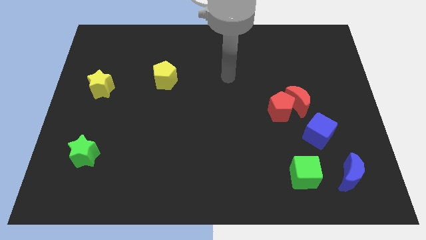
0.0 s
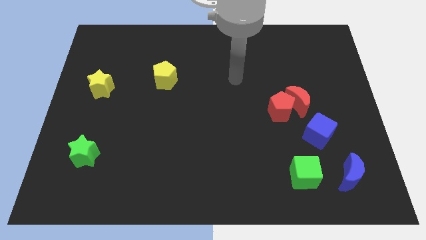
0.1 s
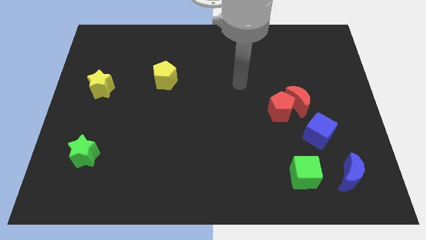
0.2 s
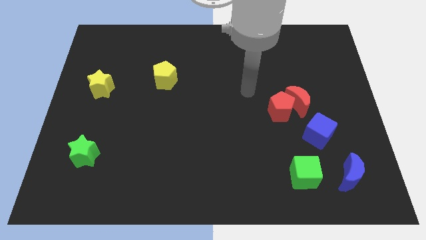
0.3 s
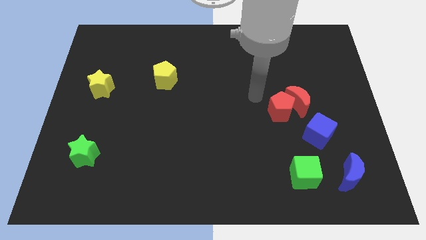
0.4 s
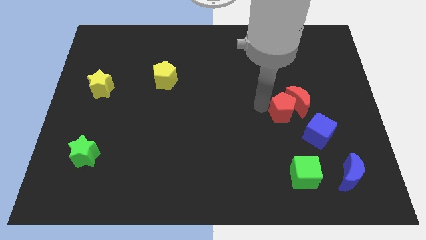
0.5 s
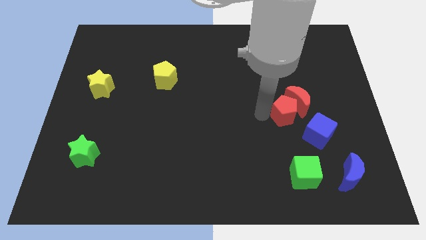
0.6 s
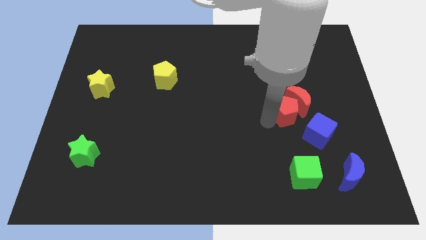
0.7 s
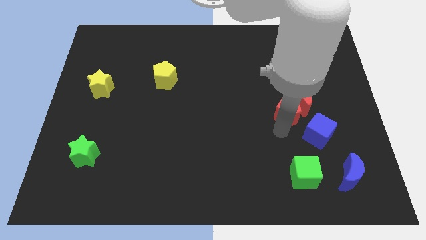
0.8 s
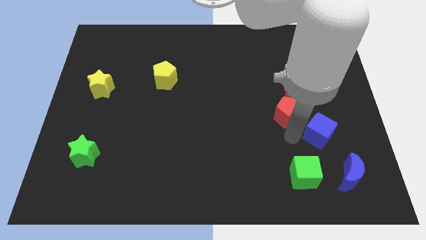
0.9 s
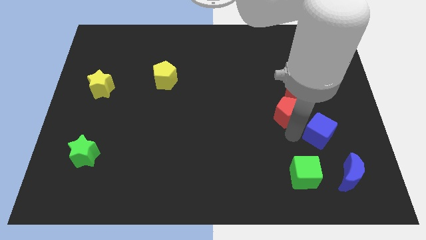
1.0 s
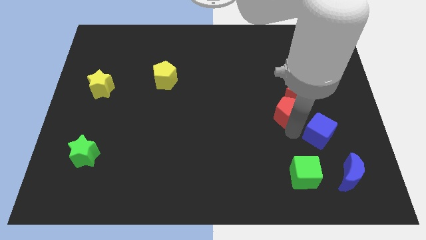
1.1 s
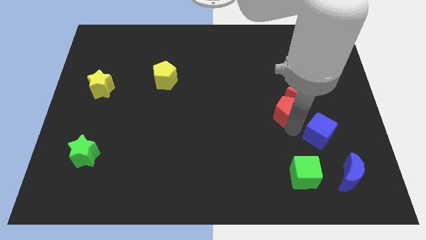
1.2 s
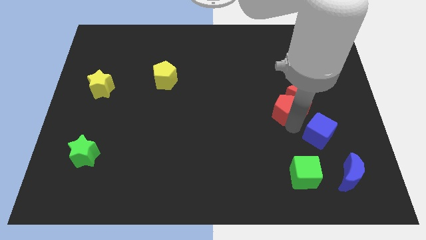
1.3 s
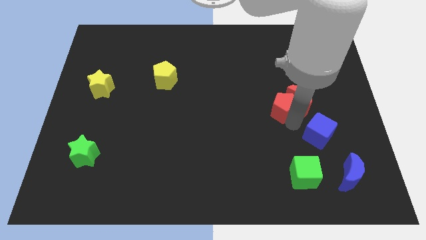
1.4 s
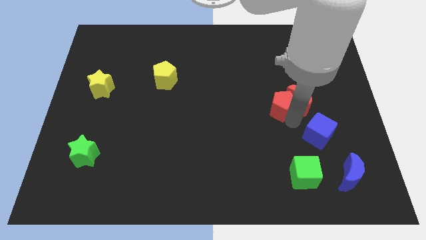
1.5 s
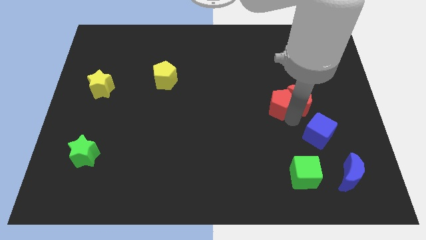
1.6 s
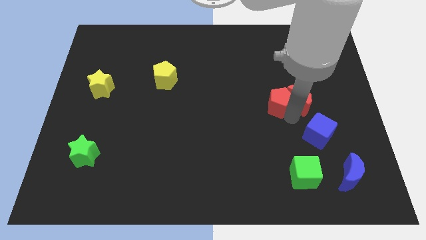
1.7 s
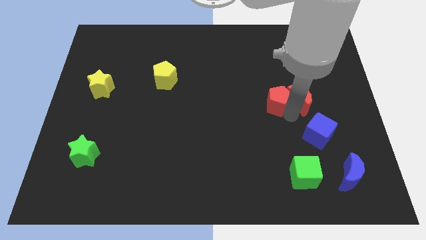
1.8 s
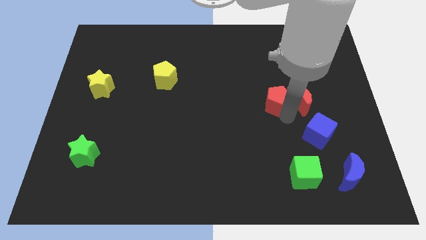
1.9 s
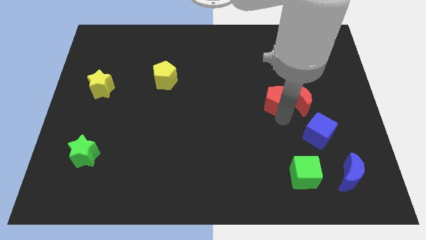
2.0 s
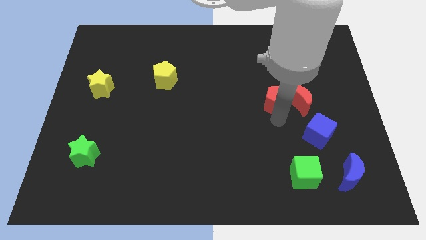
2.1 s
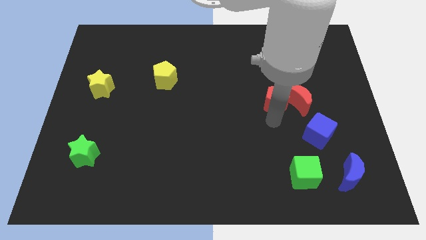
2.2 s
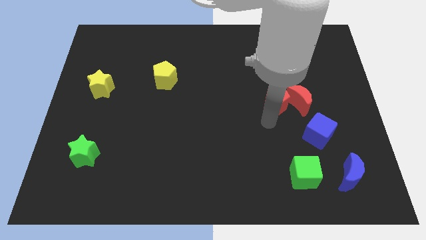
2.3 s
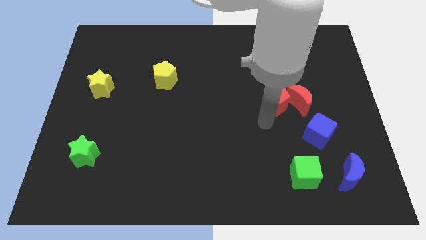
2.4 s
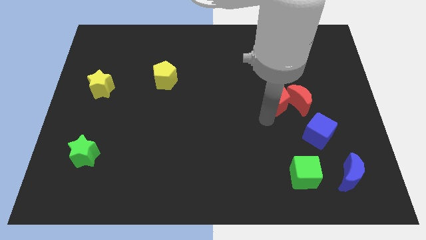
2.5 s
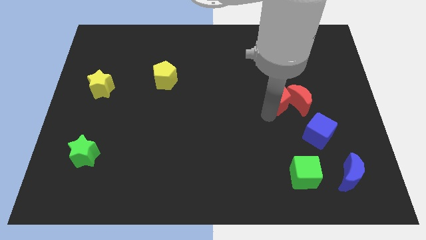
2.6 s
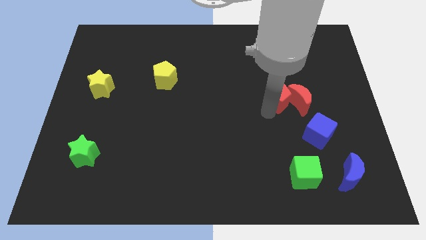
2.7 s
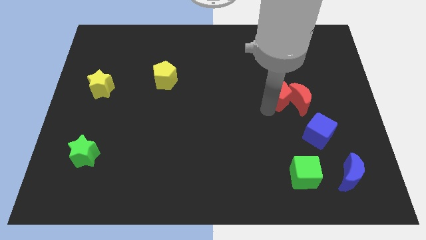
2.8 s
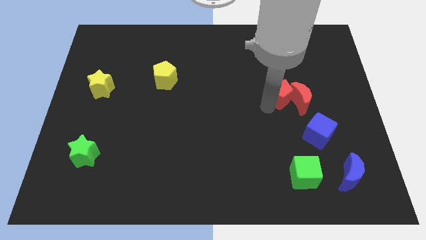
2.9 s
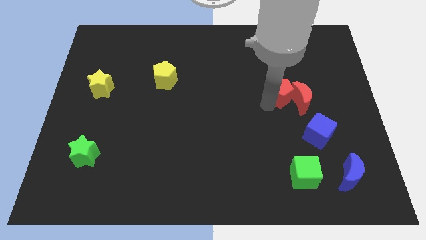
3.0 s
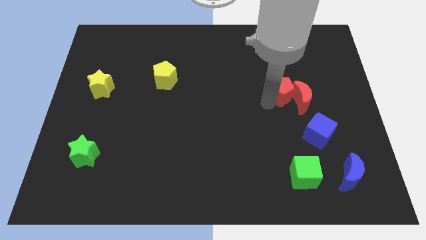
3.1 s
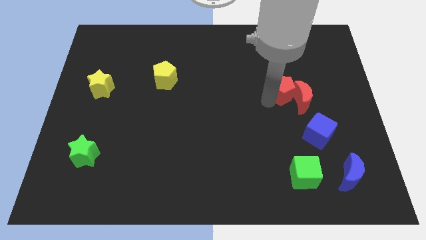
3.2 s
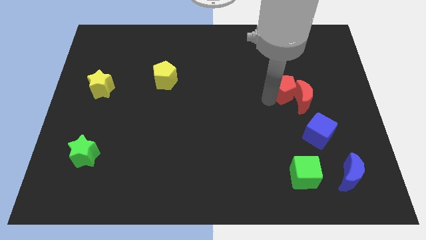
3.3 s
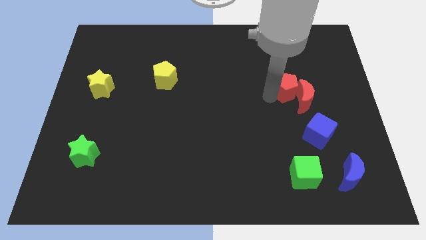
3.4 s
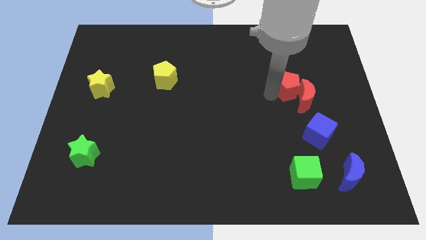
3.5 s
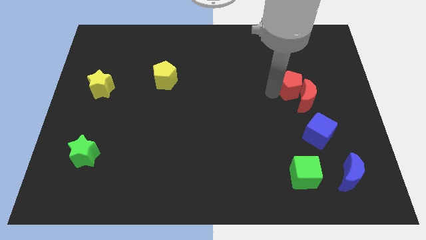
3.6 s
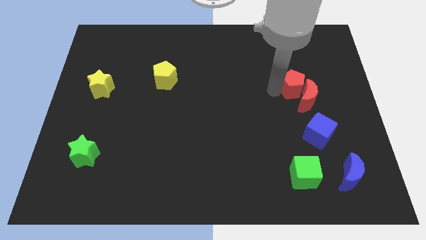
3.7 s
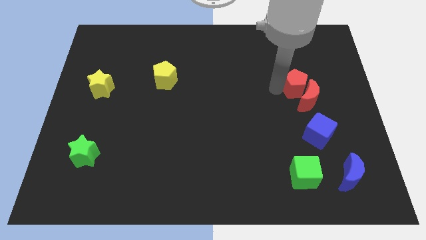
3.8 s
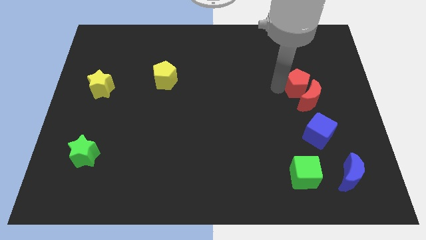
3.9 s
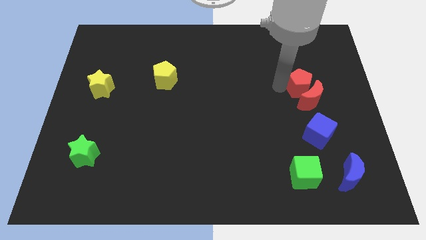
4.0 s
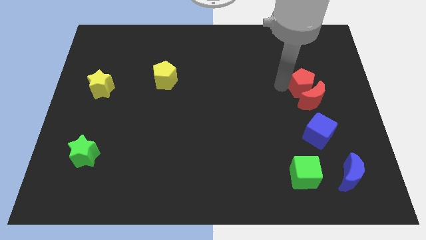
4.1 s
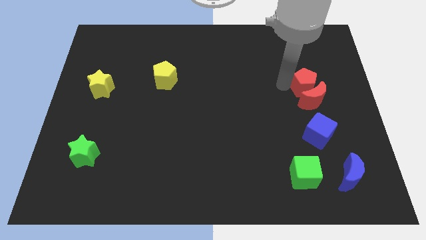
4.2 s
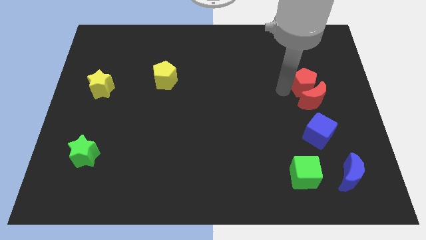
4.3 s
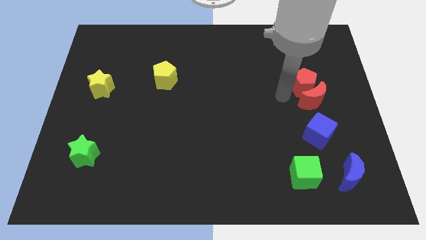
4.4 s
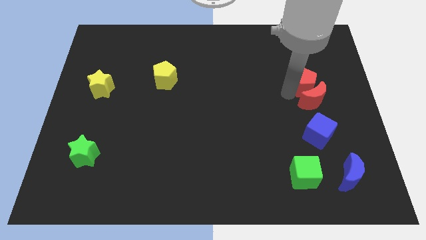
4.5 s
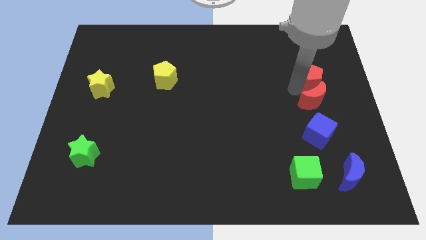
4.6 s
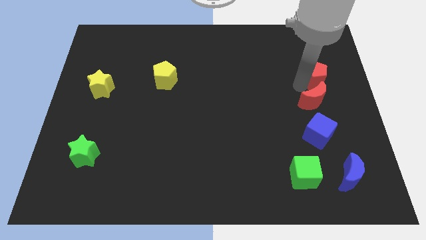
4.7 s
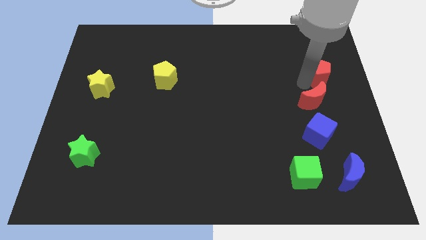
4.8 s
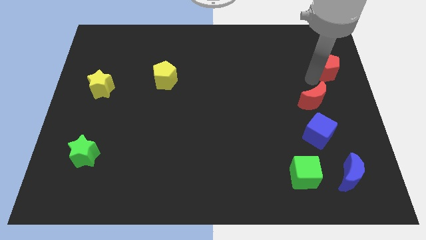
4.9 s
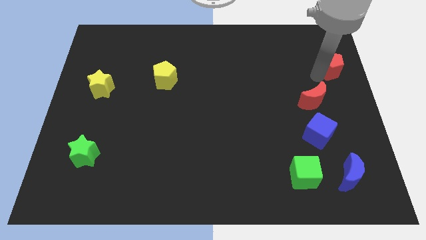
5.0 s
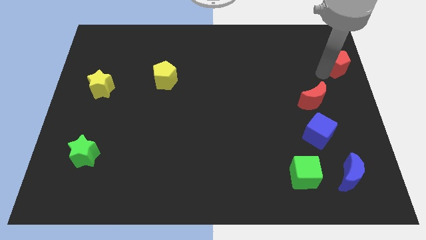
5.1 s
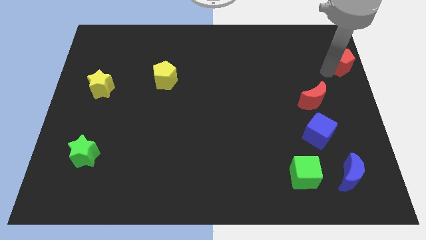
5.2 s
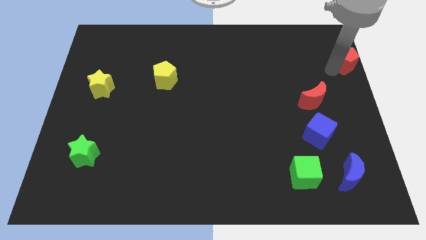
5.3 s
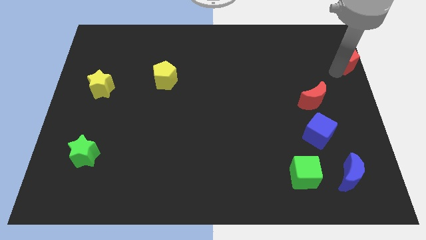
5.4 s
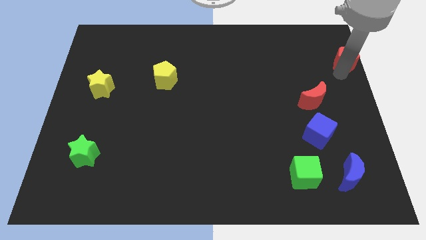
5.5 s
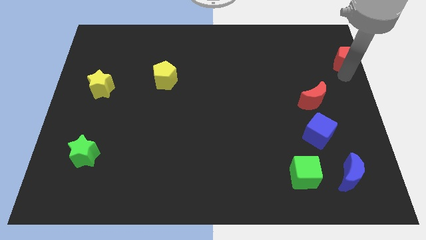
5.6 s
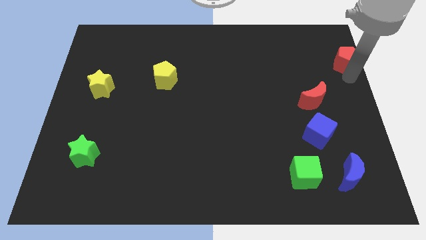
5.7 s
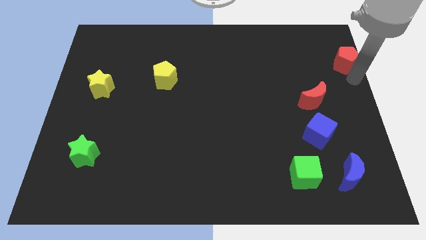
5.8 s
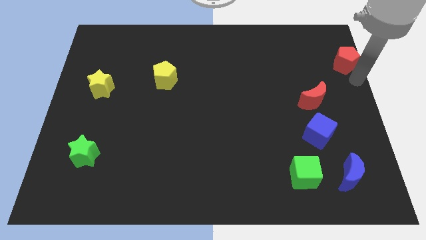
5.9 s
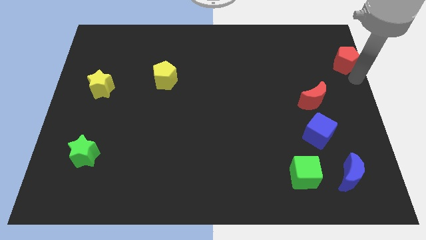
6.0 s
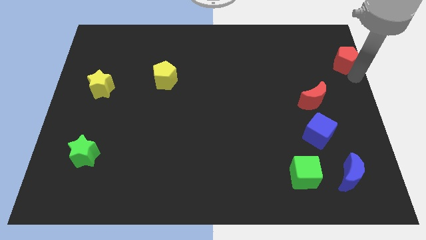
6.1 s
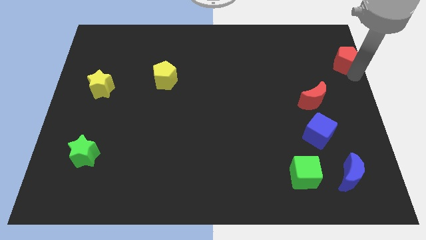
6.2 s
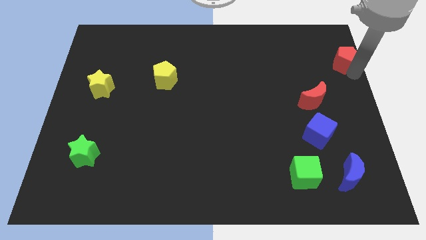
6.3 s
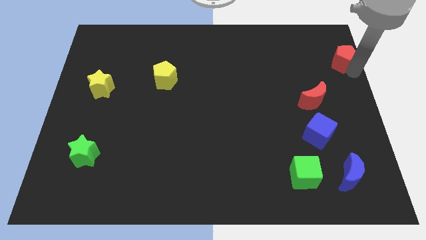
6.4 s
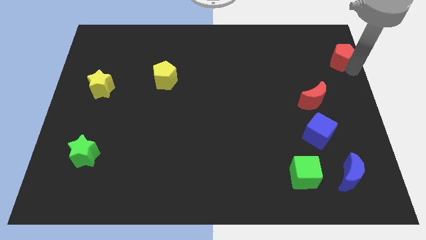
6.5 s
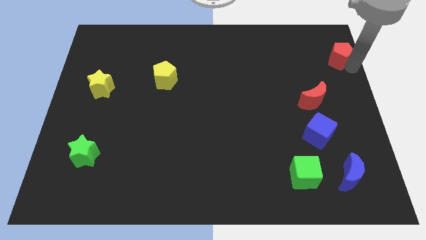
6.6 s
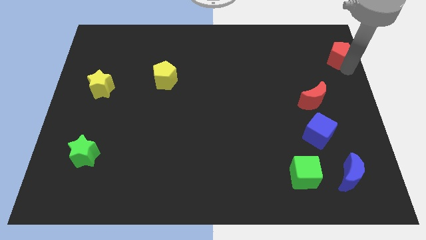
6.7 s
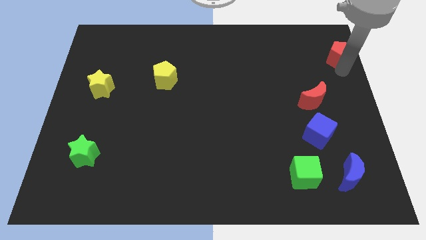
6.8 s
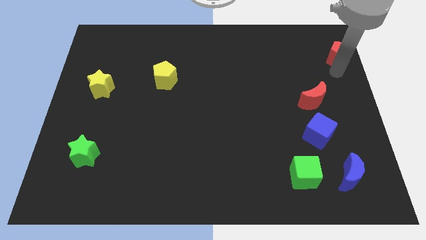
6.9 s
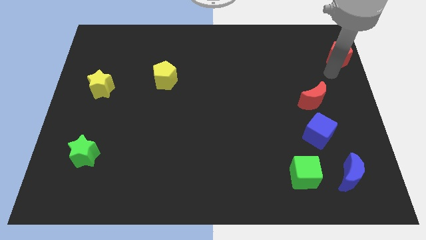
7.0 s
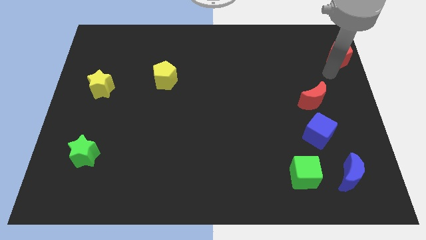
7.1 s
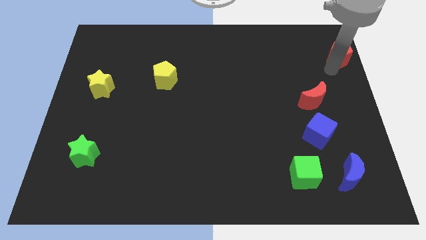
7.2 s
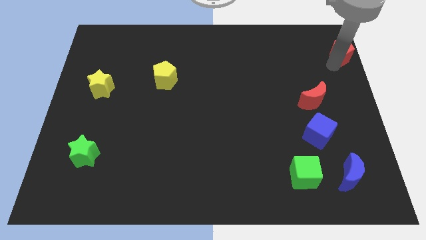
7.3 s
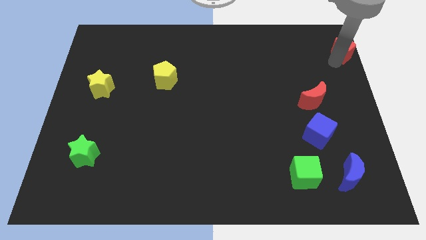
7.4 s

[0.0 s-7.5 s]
move the red pentagon to the top right corner
